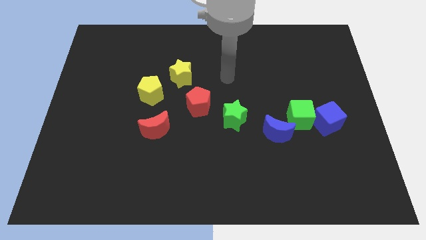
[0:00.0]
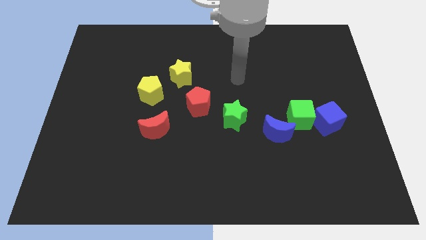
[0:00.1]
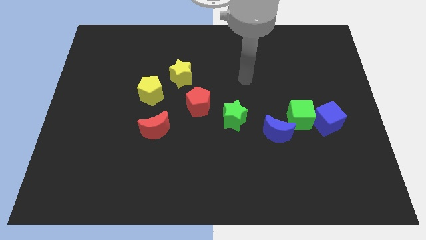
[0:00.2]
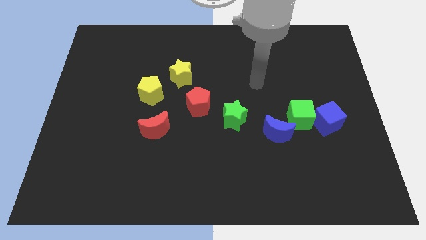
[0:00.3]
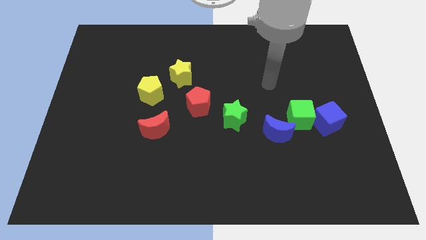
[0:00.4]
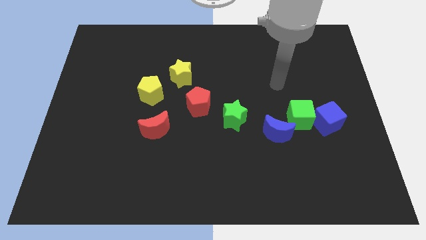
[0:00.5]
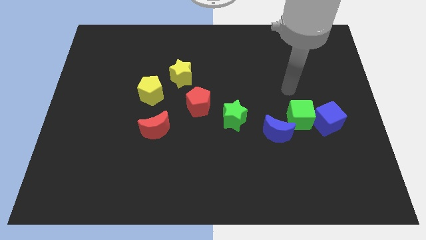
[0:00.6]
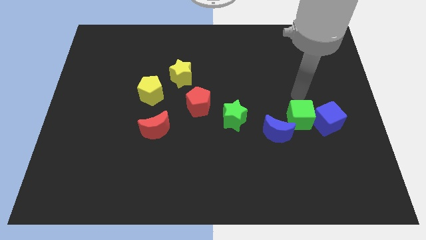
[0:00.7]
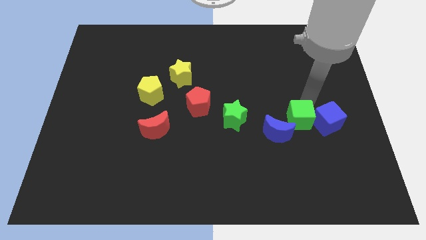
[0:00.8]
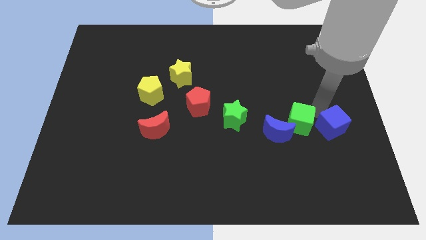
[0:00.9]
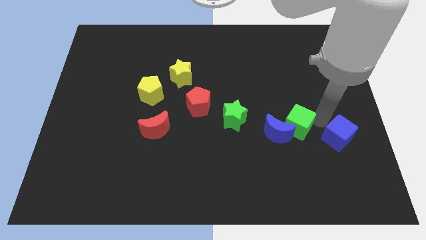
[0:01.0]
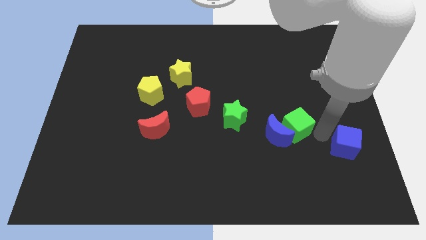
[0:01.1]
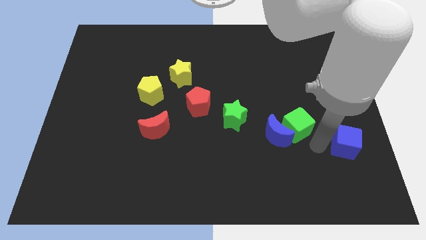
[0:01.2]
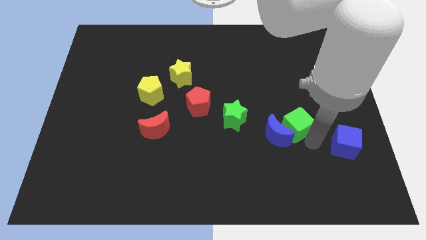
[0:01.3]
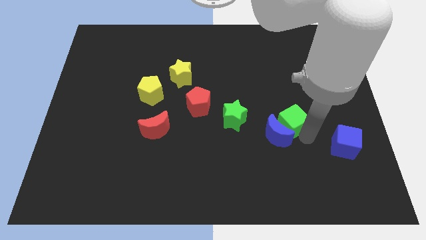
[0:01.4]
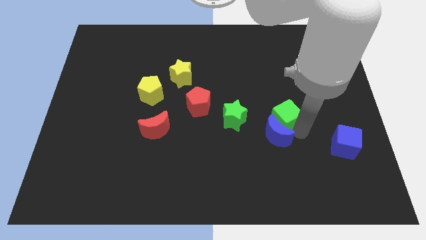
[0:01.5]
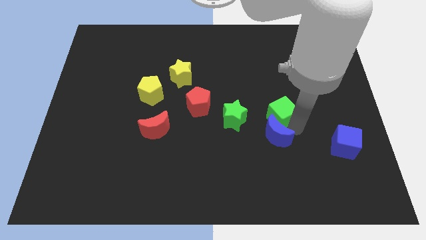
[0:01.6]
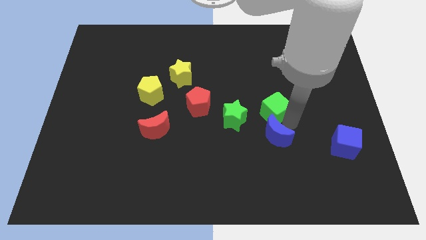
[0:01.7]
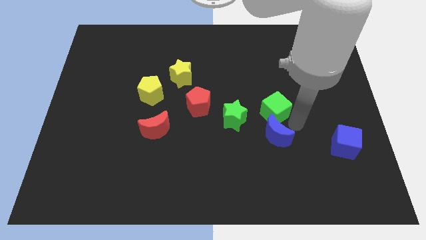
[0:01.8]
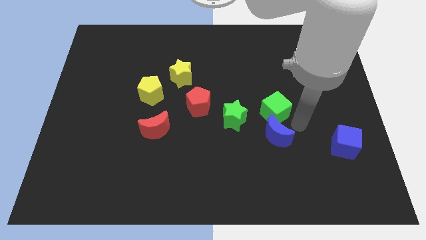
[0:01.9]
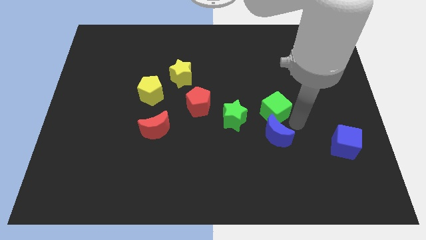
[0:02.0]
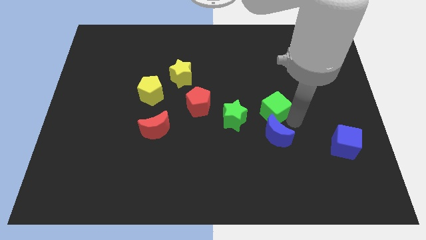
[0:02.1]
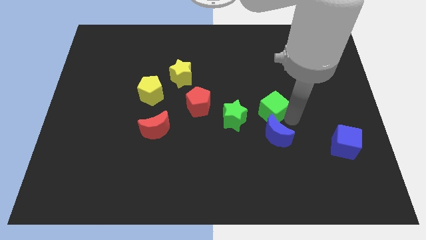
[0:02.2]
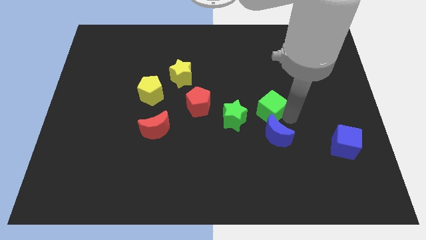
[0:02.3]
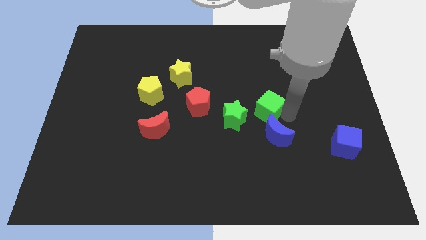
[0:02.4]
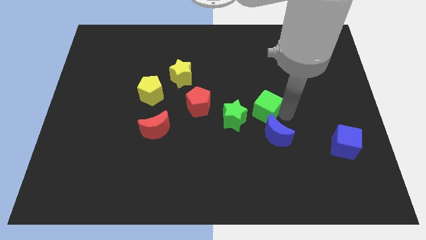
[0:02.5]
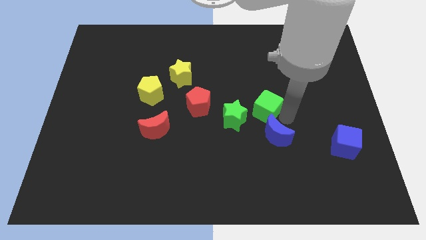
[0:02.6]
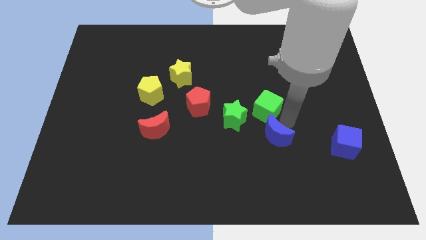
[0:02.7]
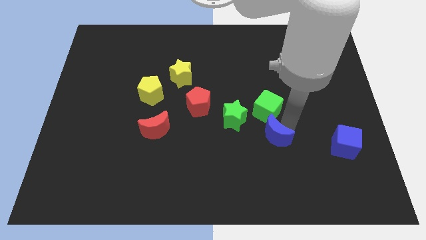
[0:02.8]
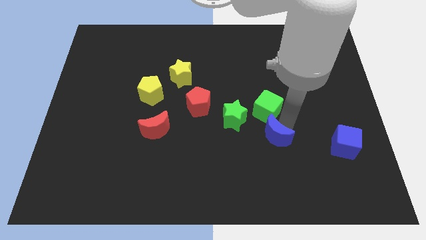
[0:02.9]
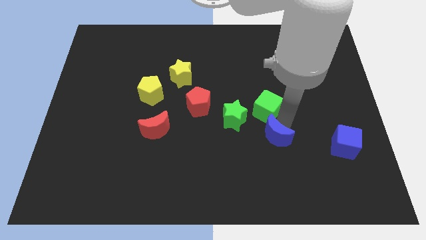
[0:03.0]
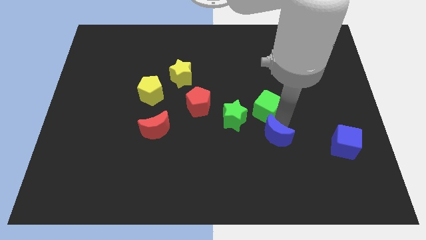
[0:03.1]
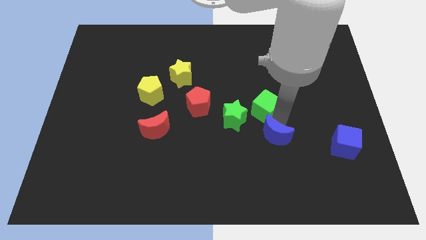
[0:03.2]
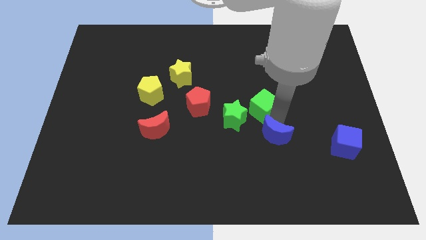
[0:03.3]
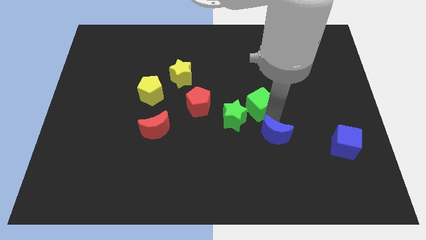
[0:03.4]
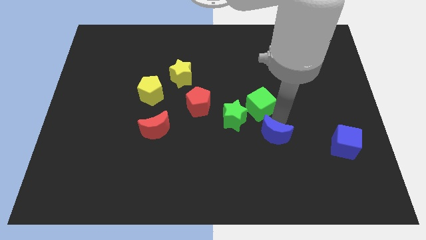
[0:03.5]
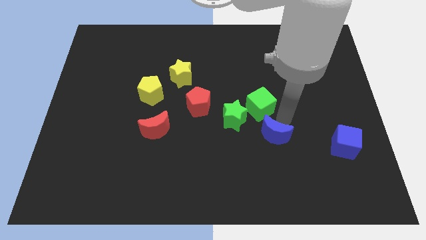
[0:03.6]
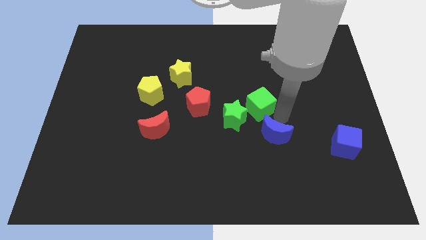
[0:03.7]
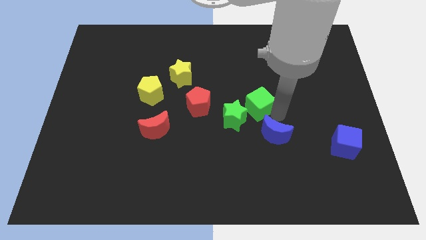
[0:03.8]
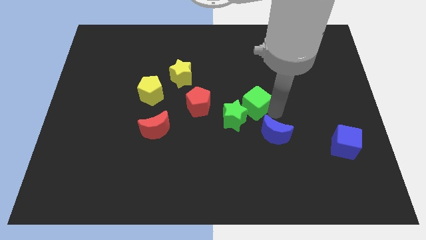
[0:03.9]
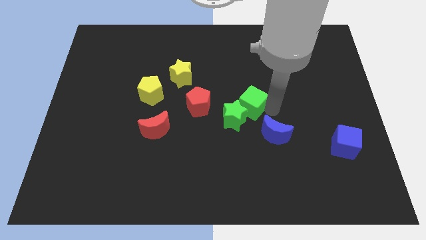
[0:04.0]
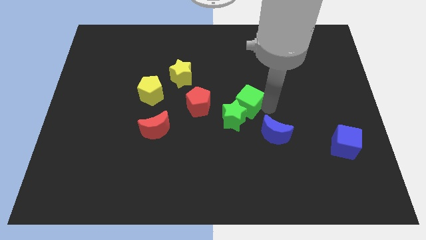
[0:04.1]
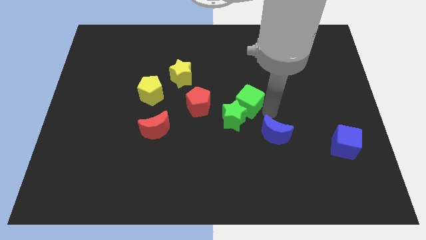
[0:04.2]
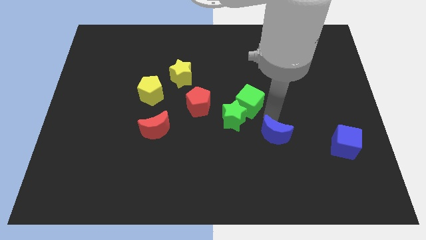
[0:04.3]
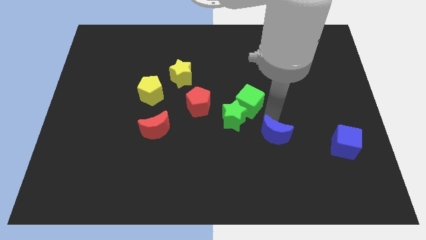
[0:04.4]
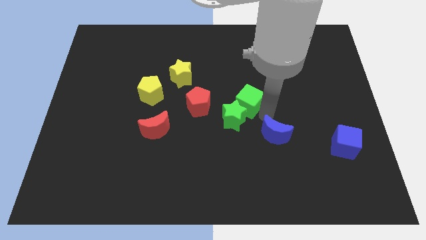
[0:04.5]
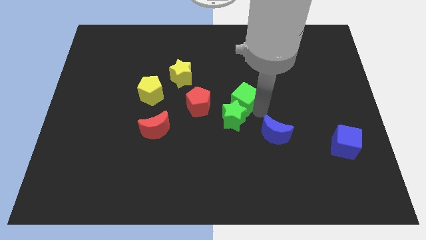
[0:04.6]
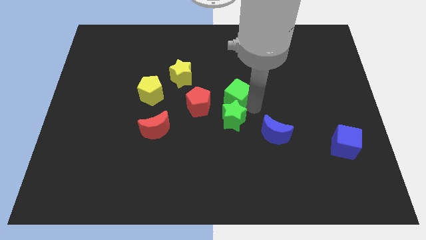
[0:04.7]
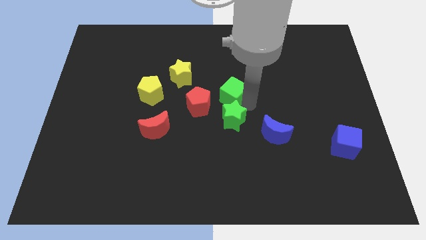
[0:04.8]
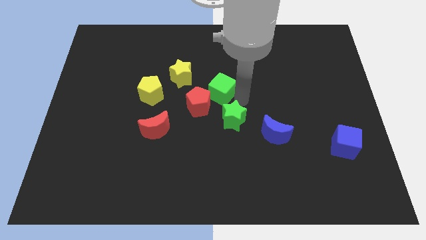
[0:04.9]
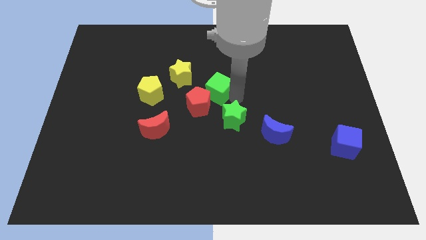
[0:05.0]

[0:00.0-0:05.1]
put the green cube above the red pentagon

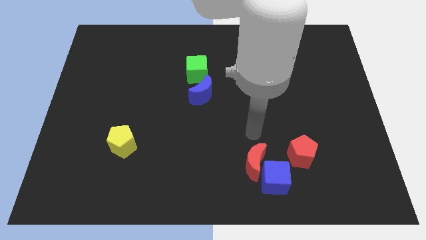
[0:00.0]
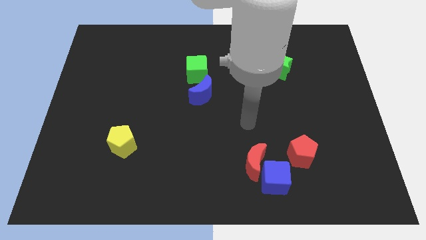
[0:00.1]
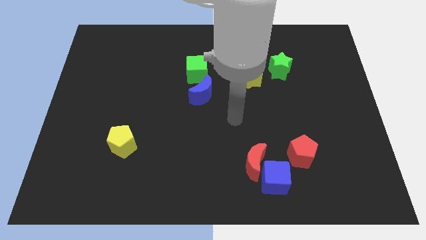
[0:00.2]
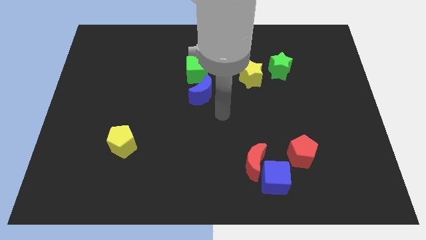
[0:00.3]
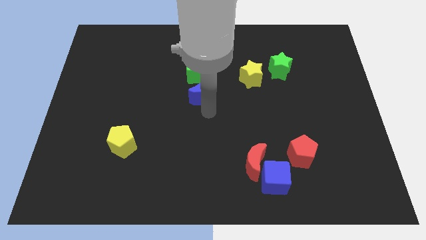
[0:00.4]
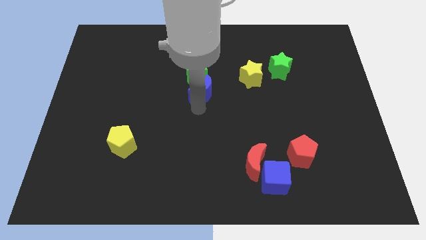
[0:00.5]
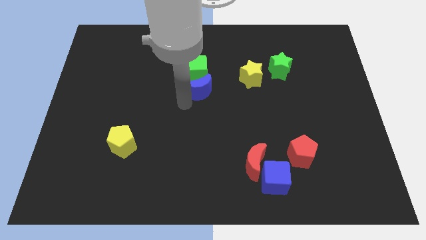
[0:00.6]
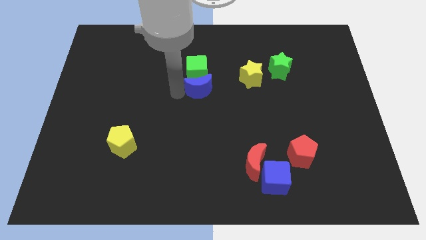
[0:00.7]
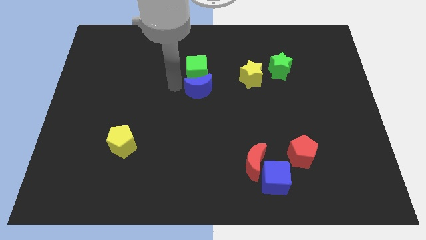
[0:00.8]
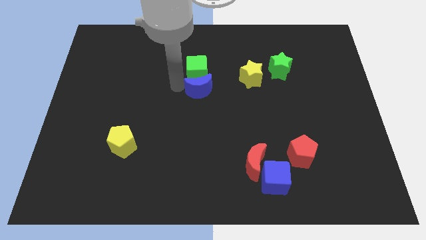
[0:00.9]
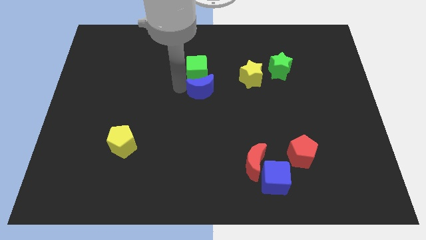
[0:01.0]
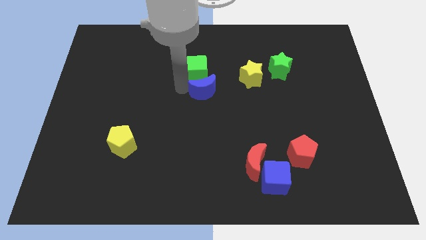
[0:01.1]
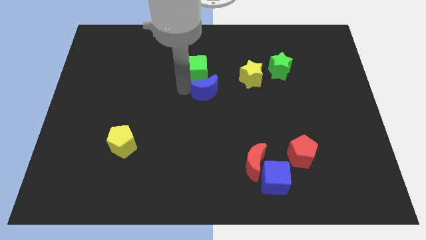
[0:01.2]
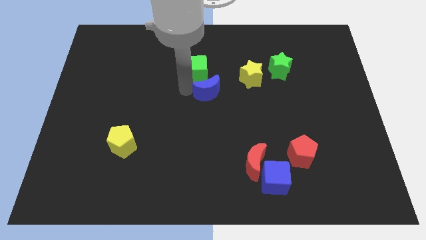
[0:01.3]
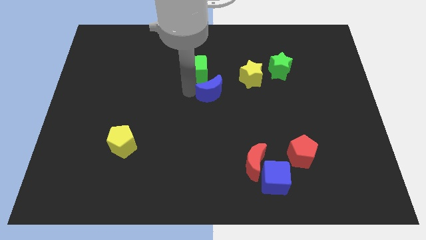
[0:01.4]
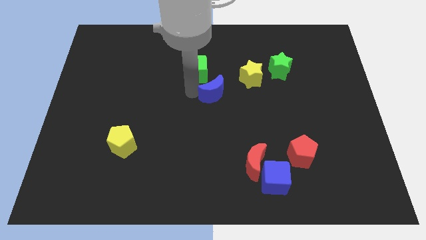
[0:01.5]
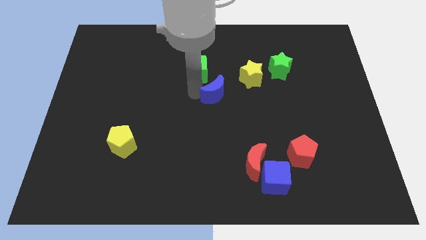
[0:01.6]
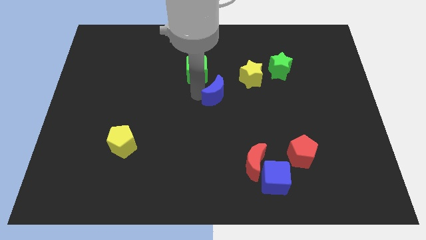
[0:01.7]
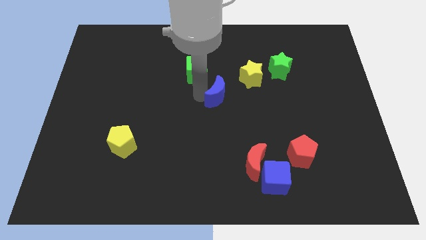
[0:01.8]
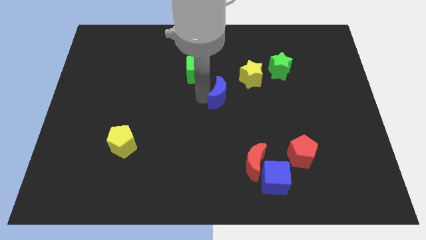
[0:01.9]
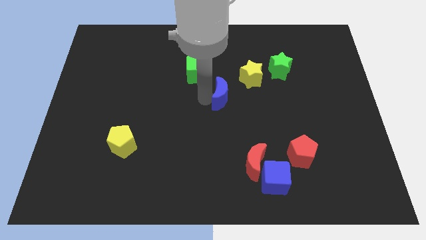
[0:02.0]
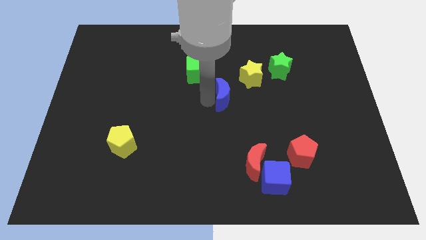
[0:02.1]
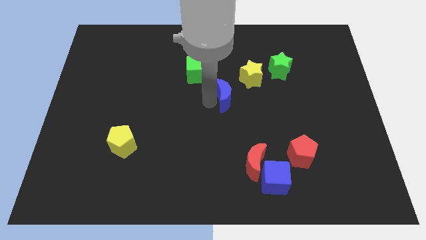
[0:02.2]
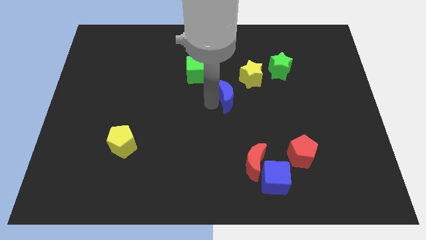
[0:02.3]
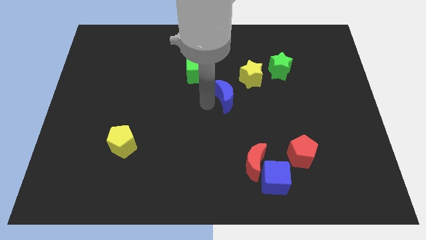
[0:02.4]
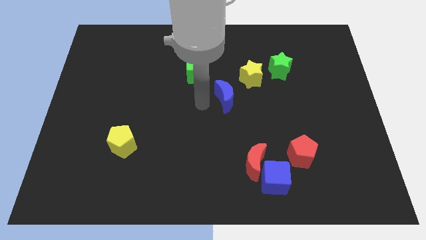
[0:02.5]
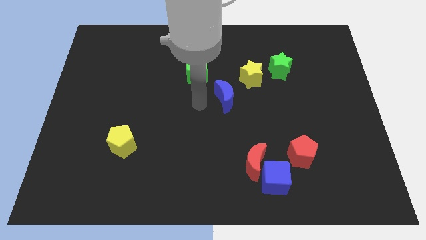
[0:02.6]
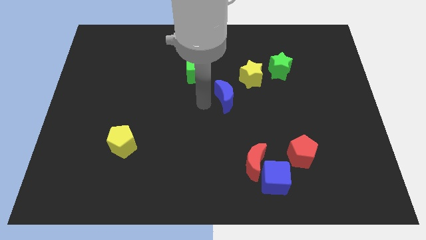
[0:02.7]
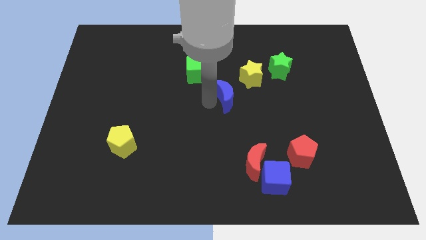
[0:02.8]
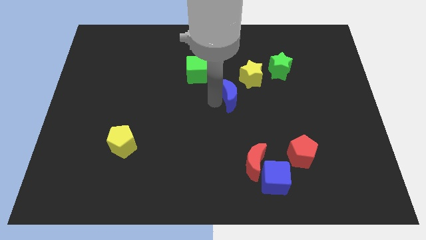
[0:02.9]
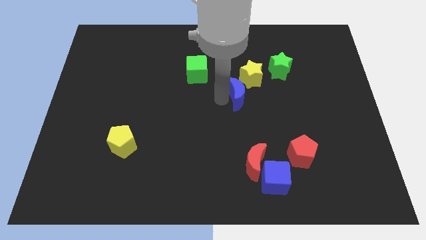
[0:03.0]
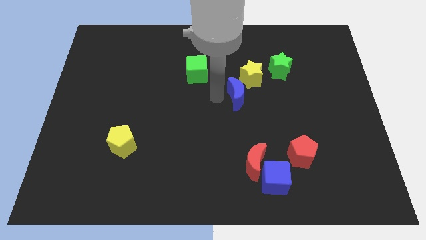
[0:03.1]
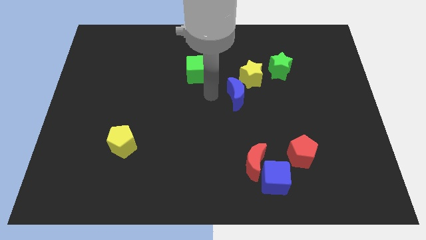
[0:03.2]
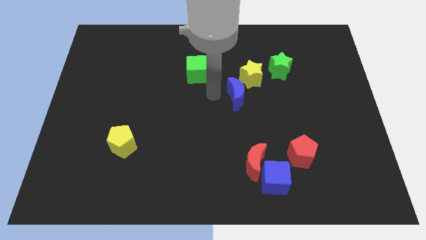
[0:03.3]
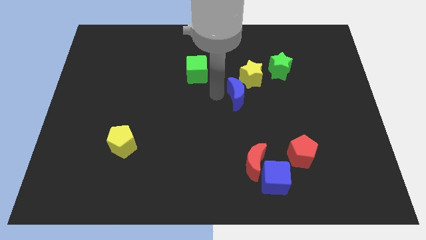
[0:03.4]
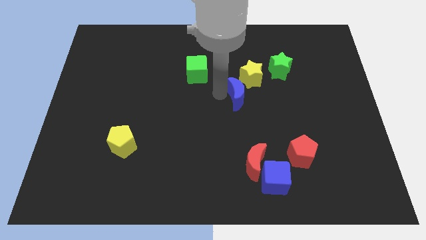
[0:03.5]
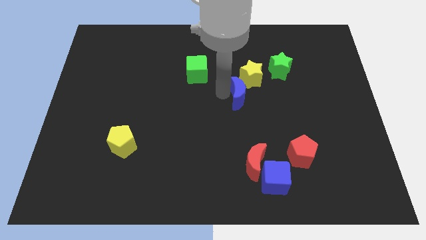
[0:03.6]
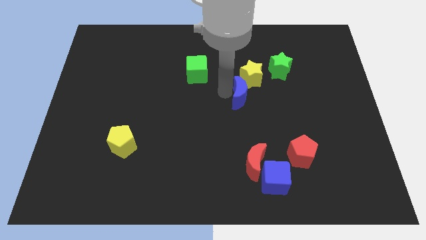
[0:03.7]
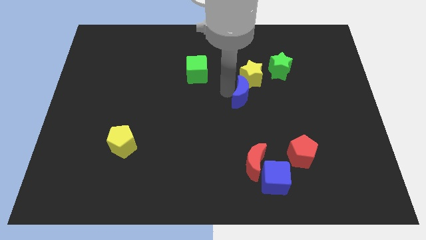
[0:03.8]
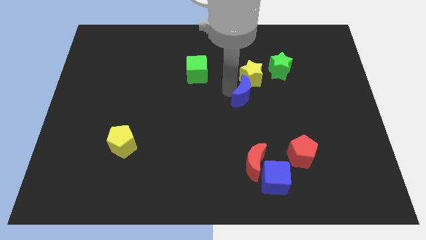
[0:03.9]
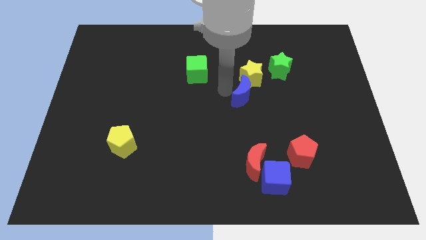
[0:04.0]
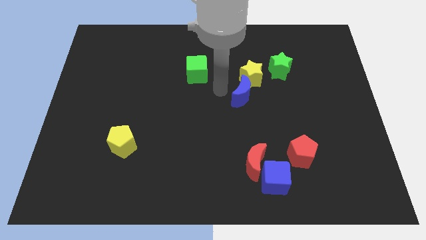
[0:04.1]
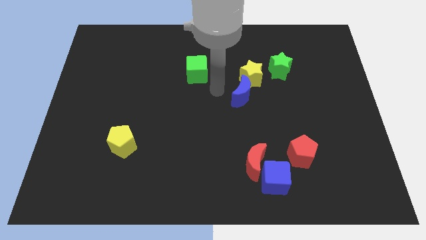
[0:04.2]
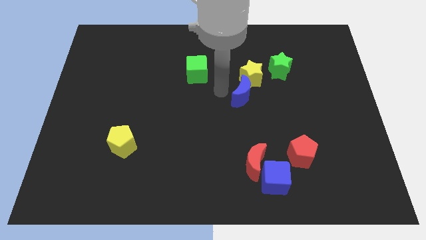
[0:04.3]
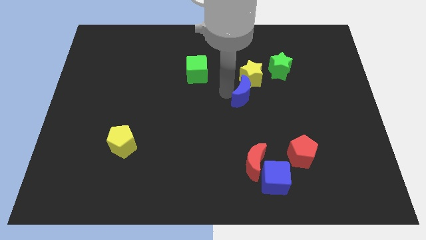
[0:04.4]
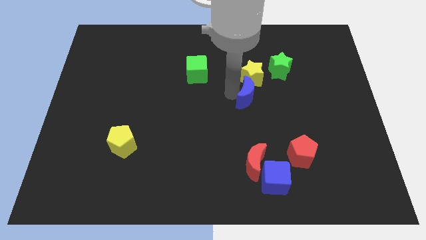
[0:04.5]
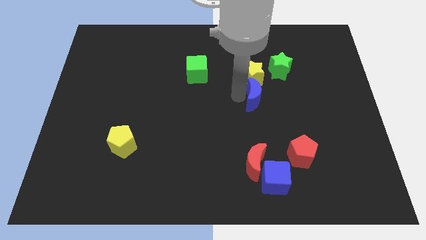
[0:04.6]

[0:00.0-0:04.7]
move the blue moon to the bottom right side of the yellow star
